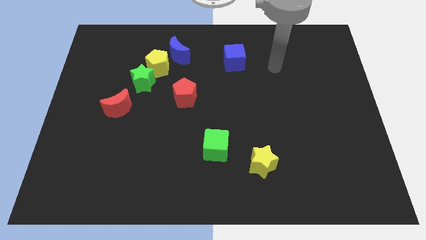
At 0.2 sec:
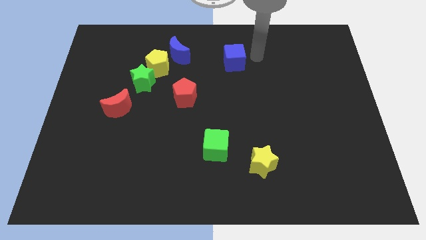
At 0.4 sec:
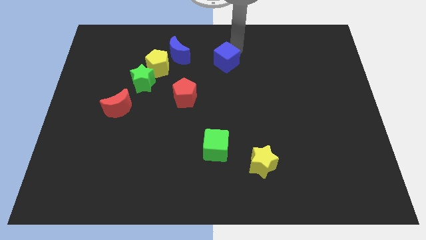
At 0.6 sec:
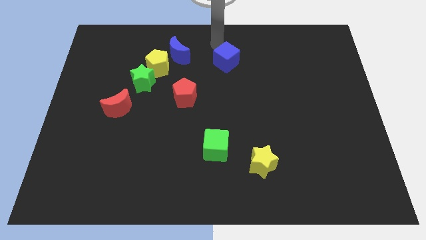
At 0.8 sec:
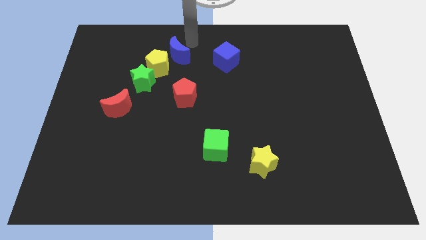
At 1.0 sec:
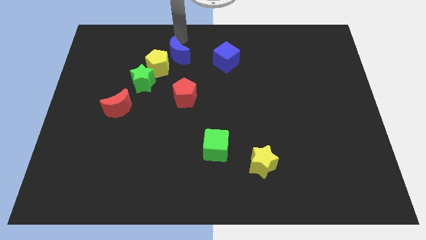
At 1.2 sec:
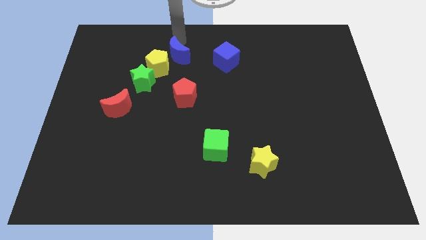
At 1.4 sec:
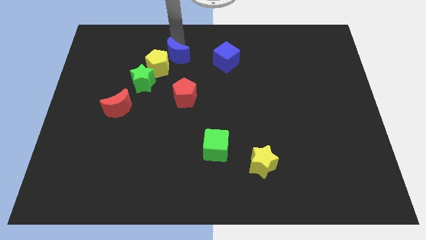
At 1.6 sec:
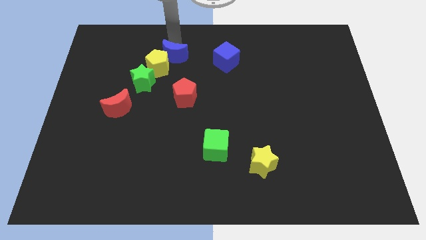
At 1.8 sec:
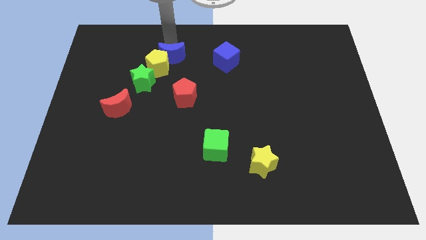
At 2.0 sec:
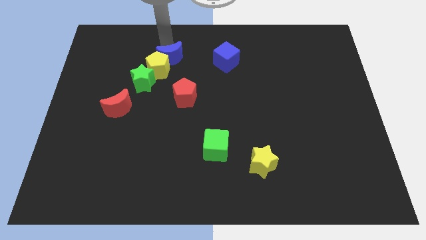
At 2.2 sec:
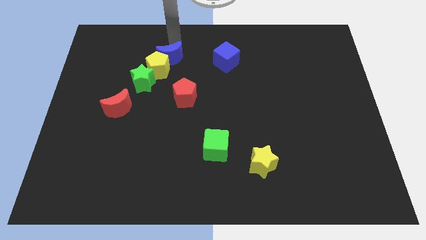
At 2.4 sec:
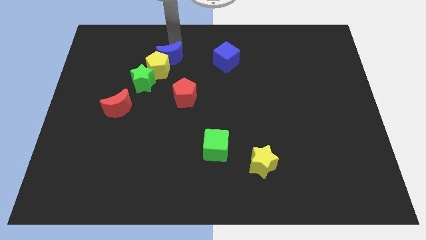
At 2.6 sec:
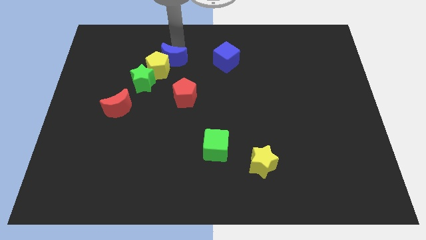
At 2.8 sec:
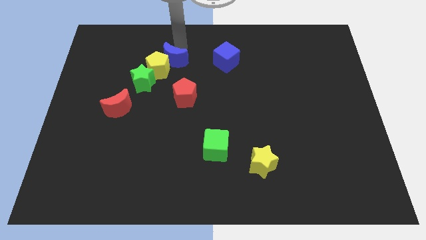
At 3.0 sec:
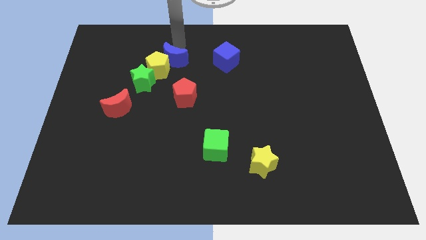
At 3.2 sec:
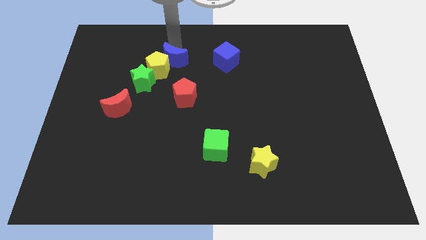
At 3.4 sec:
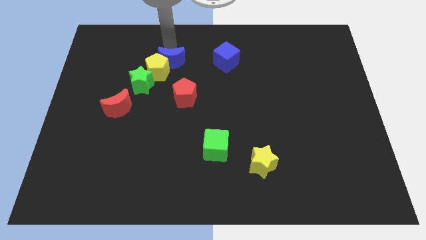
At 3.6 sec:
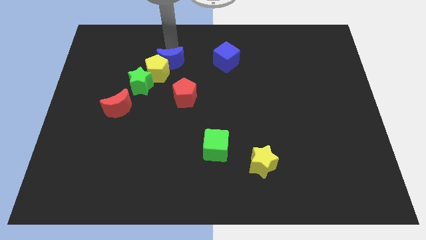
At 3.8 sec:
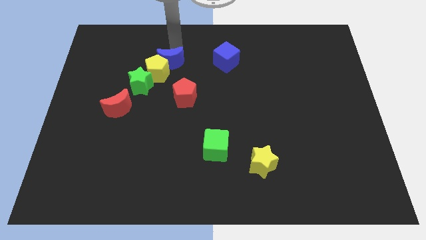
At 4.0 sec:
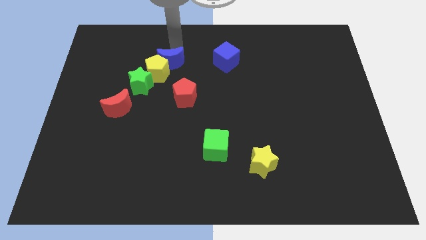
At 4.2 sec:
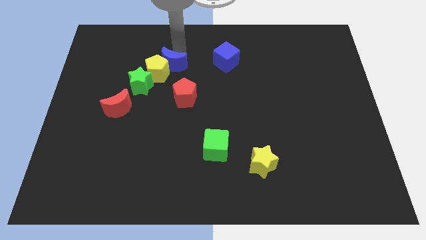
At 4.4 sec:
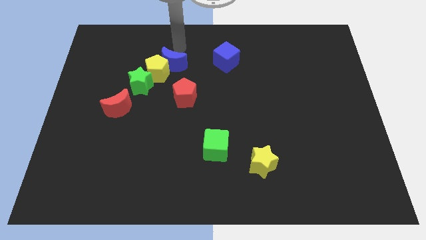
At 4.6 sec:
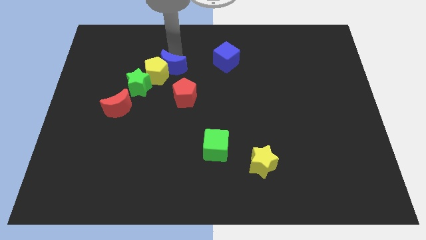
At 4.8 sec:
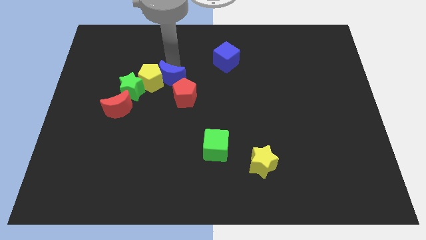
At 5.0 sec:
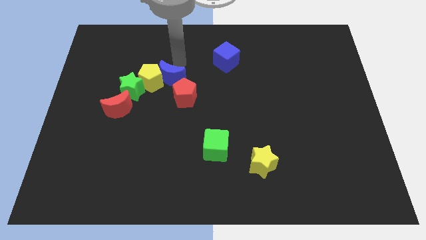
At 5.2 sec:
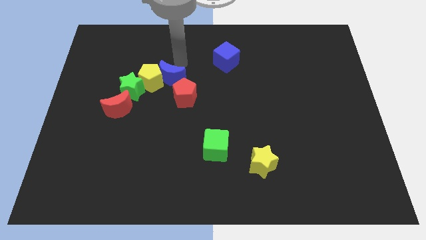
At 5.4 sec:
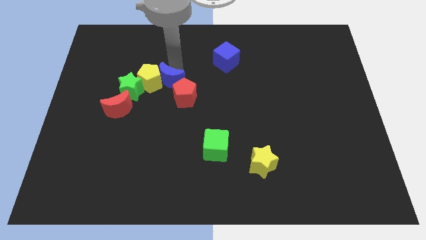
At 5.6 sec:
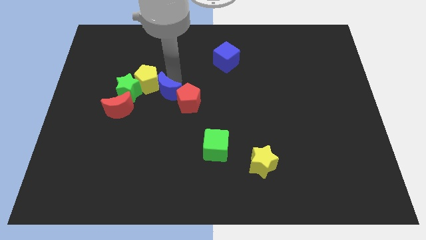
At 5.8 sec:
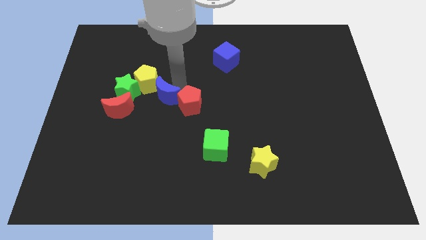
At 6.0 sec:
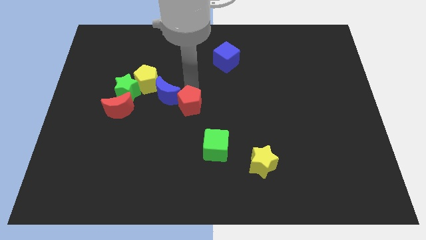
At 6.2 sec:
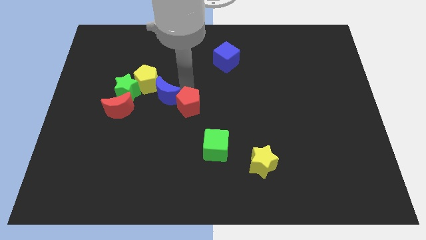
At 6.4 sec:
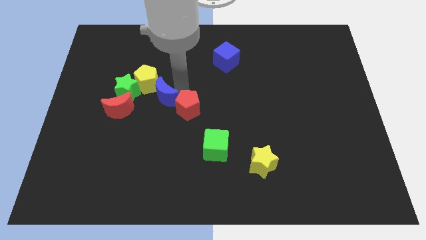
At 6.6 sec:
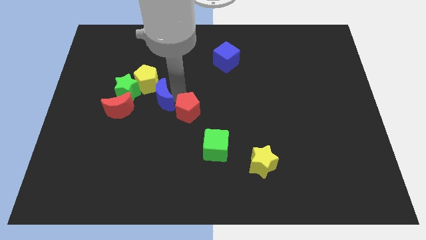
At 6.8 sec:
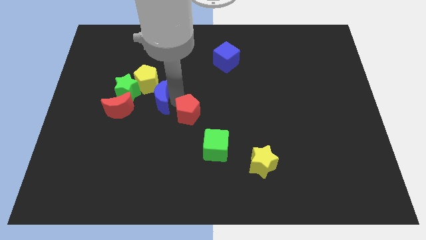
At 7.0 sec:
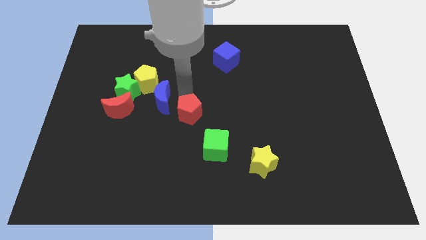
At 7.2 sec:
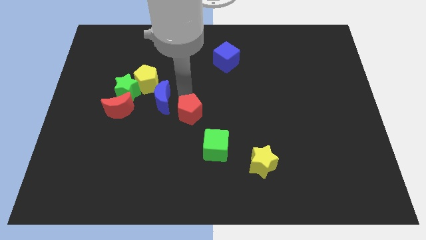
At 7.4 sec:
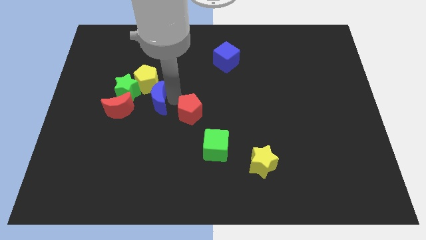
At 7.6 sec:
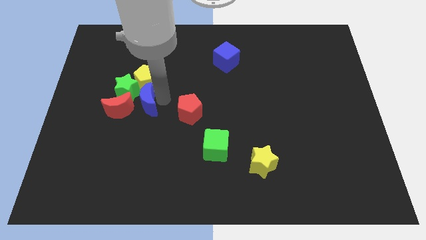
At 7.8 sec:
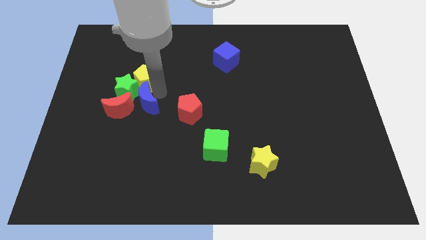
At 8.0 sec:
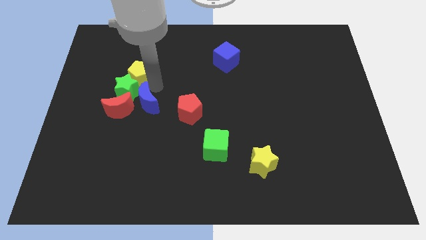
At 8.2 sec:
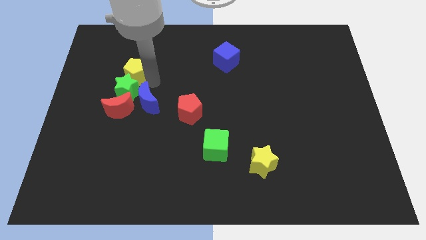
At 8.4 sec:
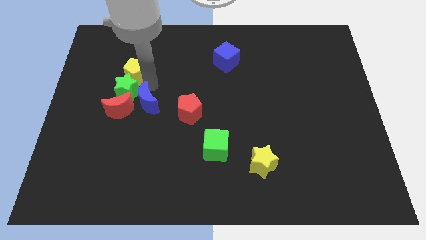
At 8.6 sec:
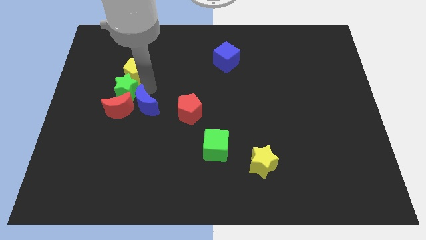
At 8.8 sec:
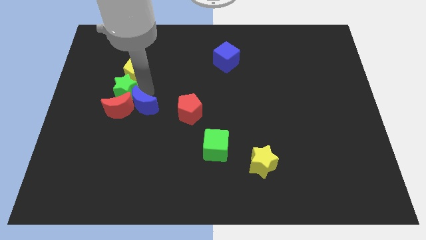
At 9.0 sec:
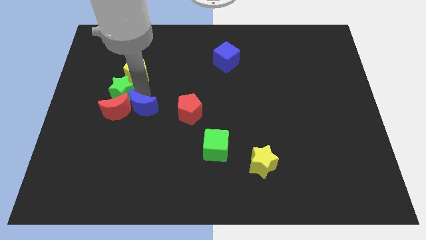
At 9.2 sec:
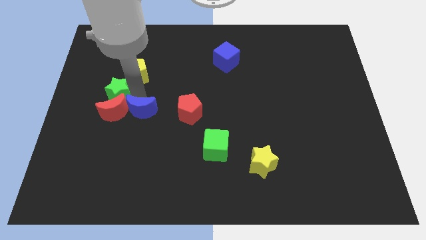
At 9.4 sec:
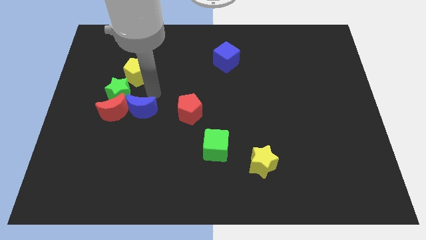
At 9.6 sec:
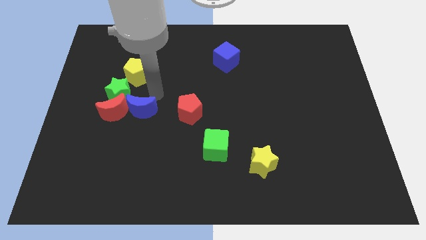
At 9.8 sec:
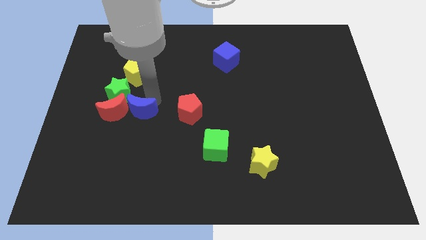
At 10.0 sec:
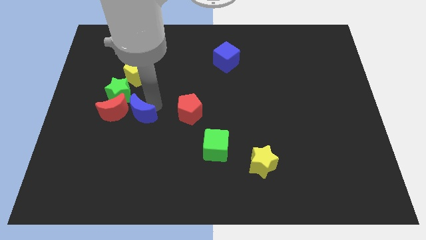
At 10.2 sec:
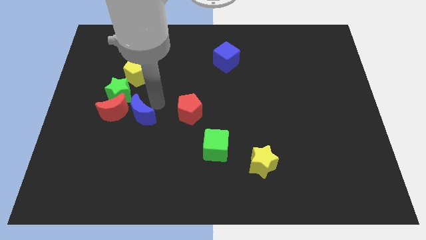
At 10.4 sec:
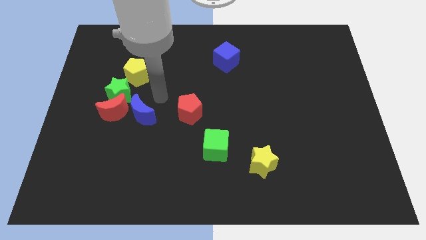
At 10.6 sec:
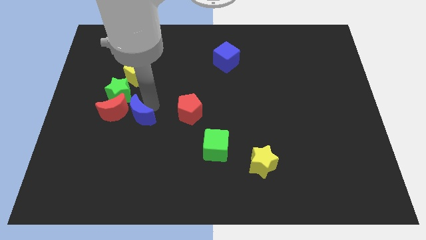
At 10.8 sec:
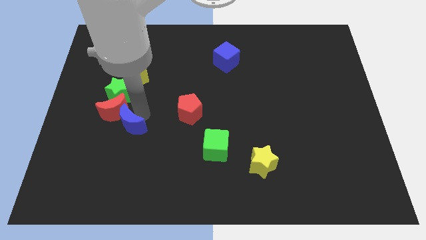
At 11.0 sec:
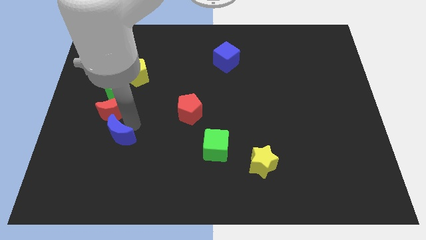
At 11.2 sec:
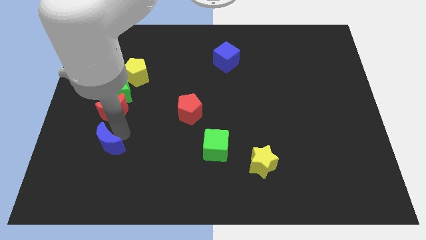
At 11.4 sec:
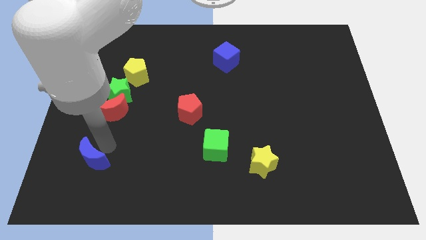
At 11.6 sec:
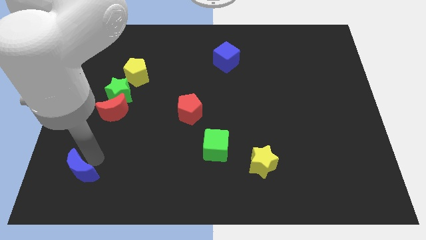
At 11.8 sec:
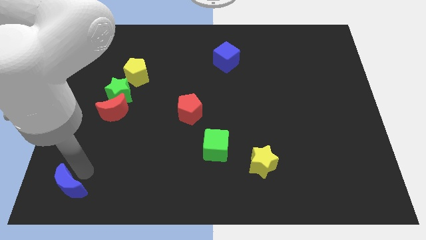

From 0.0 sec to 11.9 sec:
move the blue moon to the bottom left corner
